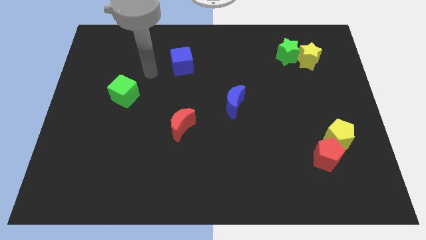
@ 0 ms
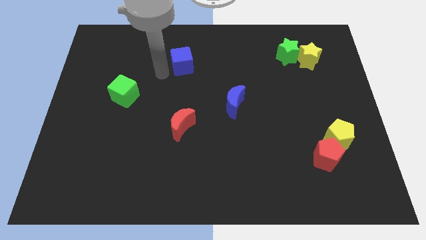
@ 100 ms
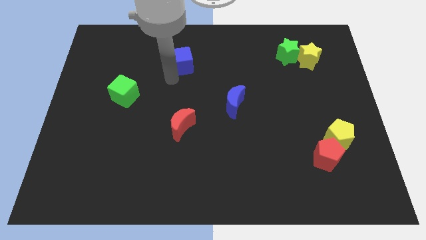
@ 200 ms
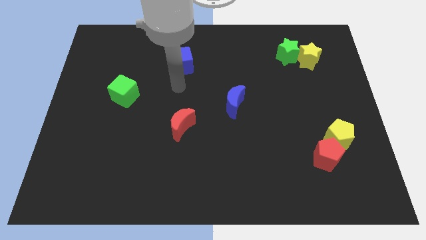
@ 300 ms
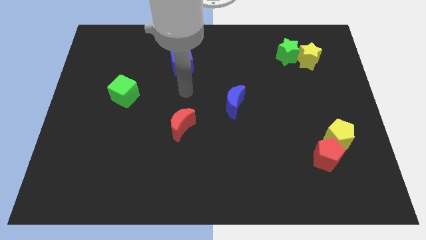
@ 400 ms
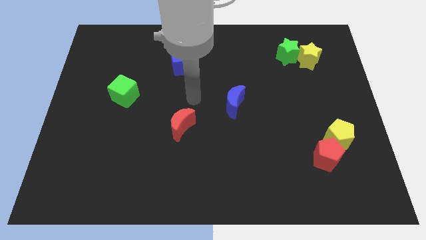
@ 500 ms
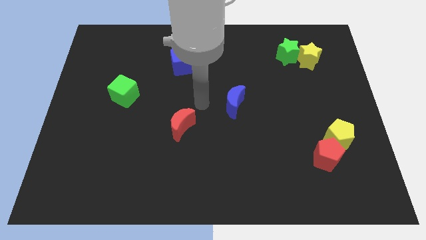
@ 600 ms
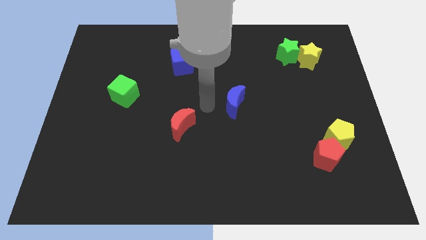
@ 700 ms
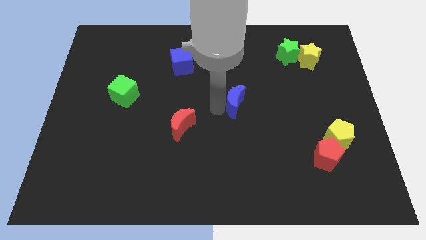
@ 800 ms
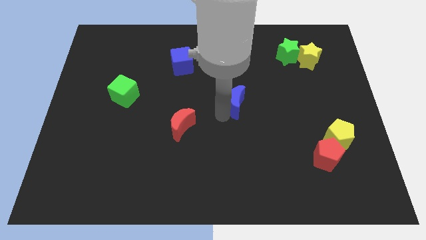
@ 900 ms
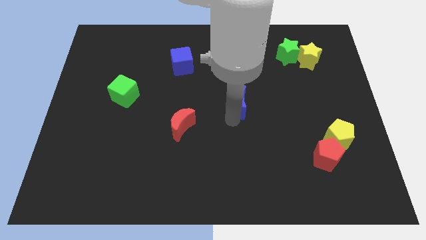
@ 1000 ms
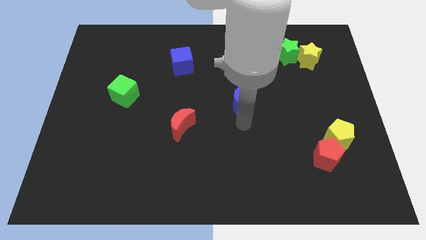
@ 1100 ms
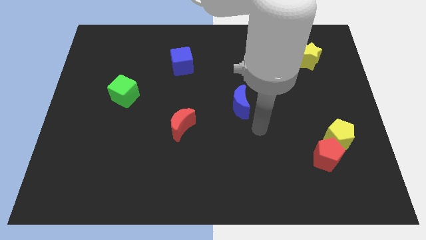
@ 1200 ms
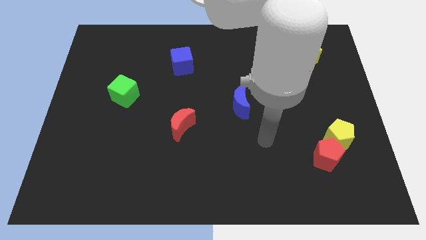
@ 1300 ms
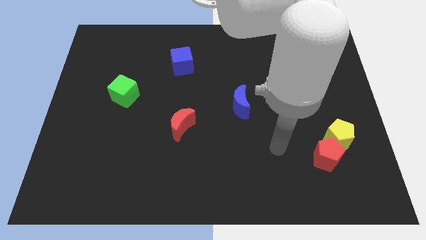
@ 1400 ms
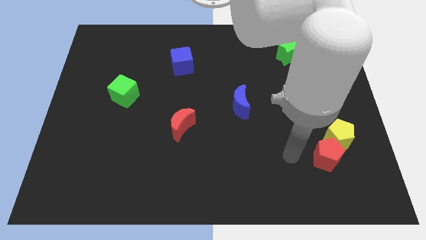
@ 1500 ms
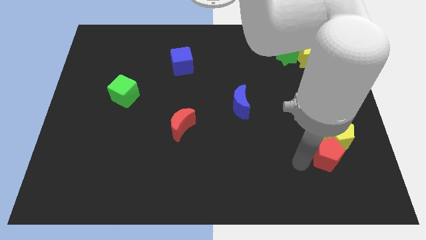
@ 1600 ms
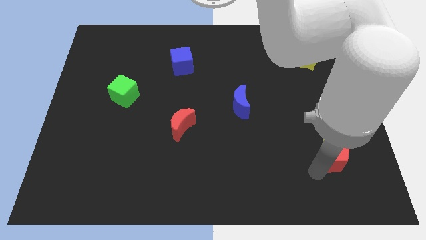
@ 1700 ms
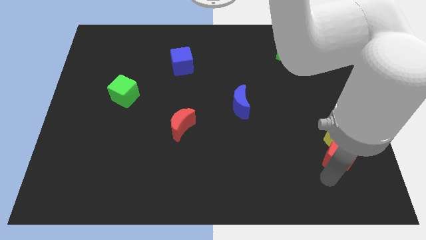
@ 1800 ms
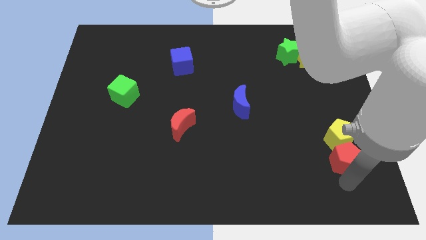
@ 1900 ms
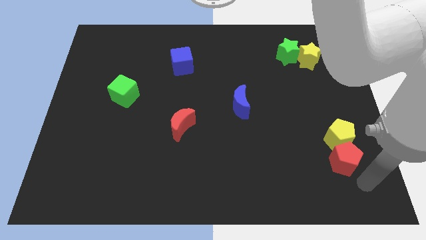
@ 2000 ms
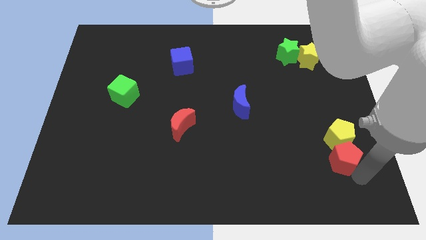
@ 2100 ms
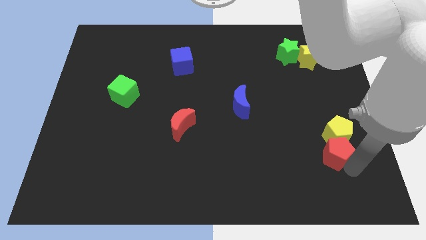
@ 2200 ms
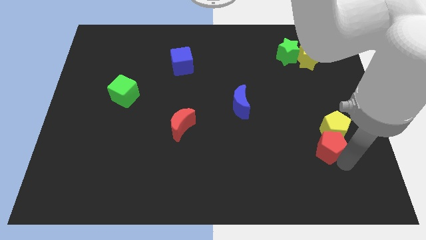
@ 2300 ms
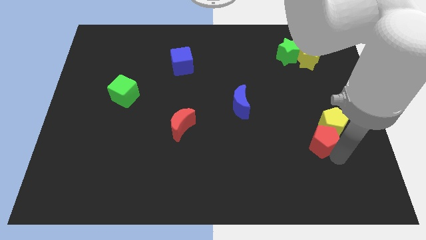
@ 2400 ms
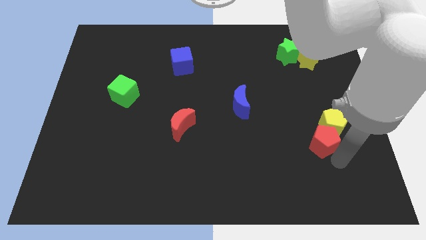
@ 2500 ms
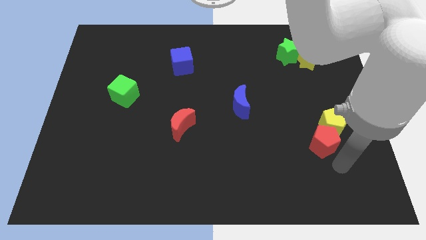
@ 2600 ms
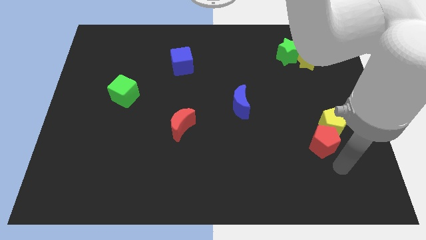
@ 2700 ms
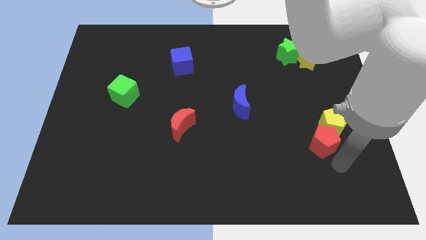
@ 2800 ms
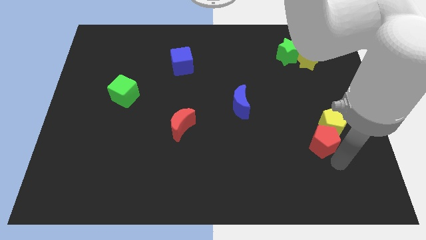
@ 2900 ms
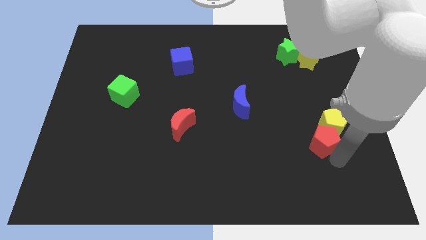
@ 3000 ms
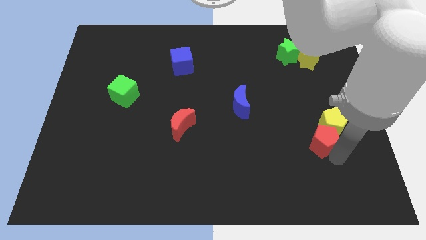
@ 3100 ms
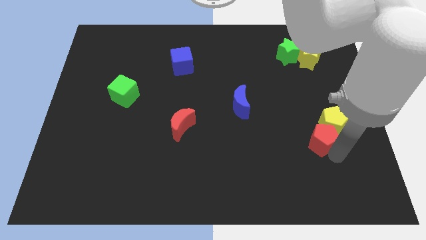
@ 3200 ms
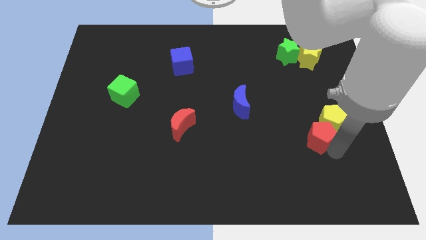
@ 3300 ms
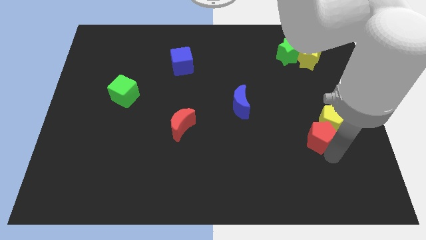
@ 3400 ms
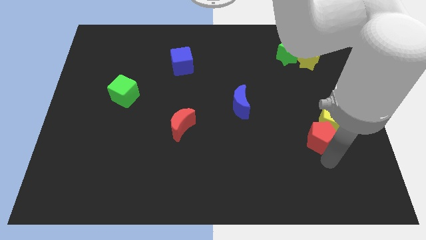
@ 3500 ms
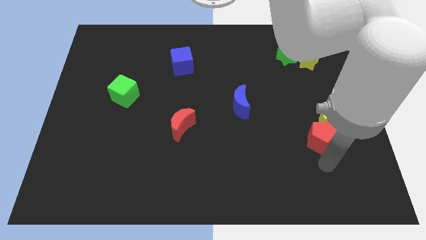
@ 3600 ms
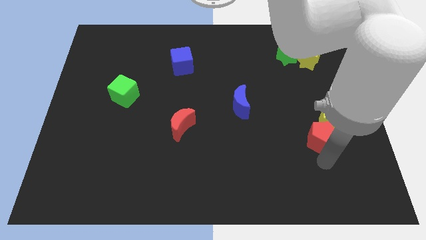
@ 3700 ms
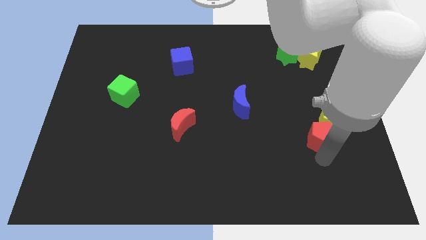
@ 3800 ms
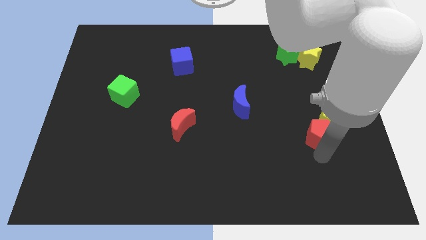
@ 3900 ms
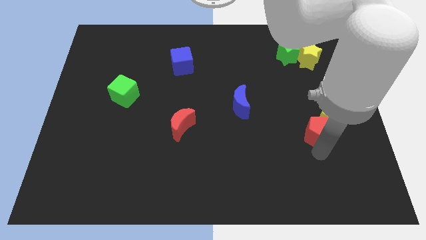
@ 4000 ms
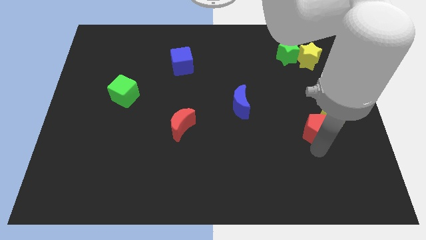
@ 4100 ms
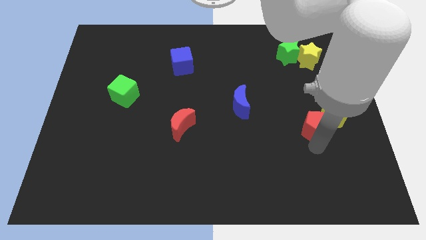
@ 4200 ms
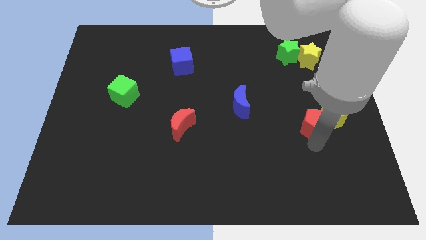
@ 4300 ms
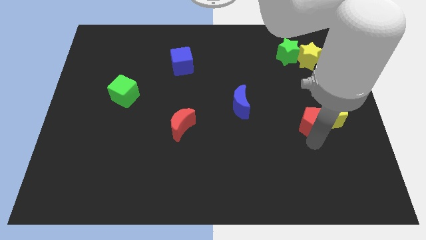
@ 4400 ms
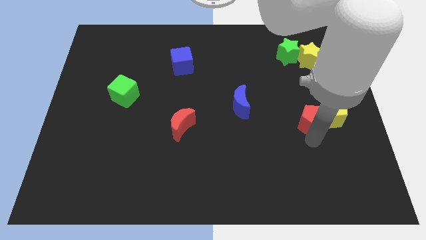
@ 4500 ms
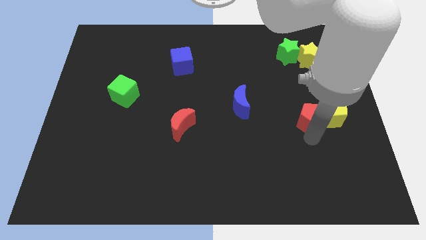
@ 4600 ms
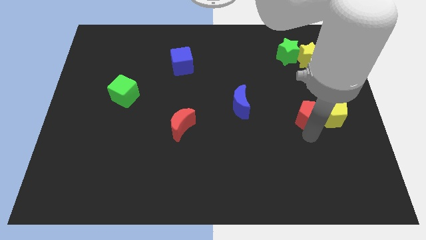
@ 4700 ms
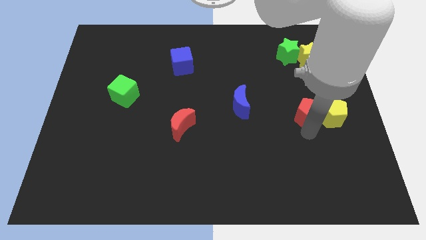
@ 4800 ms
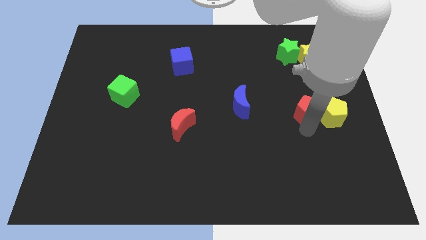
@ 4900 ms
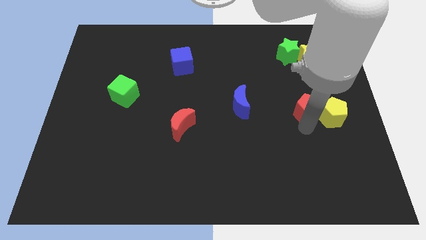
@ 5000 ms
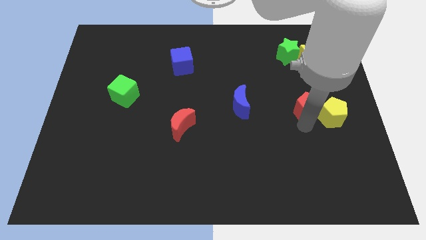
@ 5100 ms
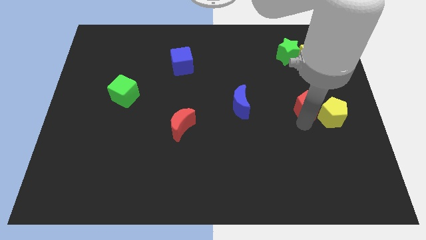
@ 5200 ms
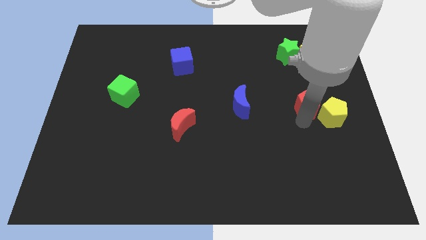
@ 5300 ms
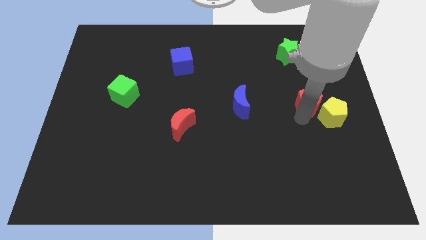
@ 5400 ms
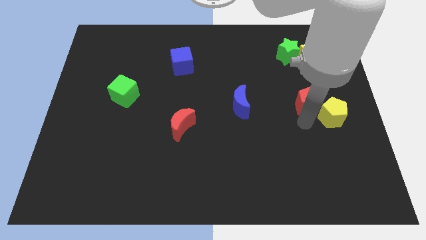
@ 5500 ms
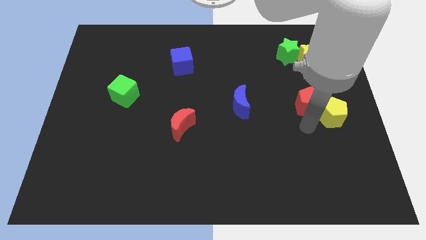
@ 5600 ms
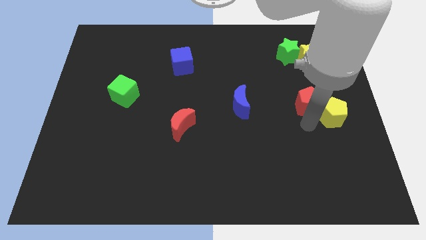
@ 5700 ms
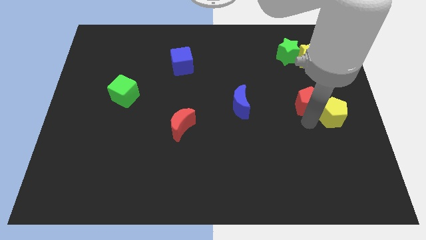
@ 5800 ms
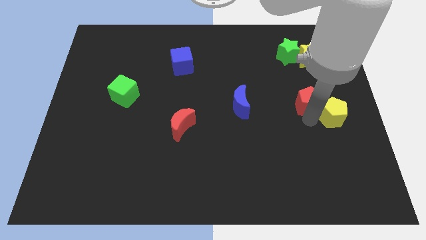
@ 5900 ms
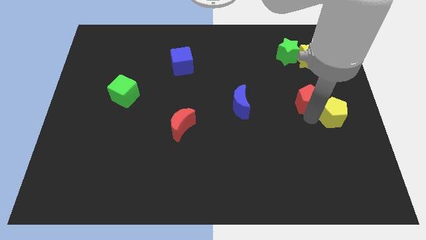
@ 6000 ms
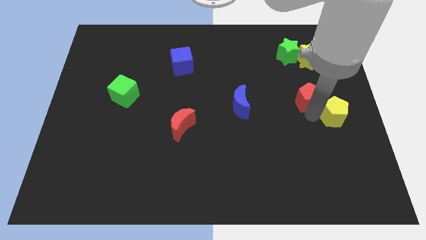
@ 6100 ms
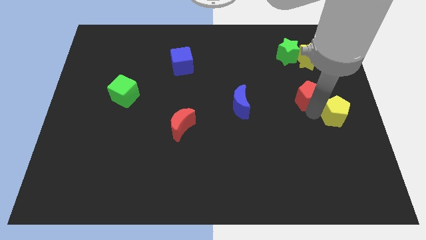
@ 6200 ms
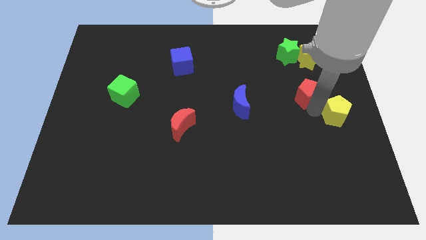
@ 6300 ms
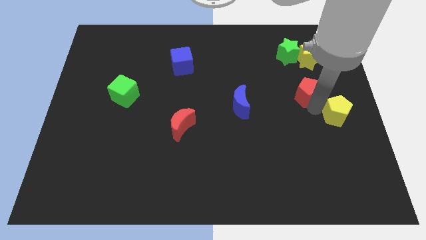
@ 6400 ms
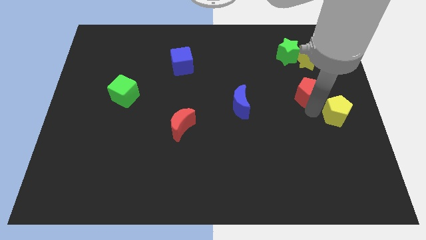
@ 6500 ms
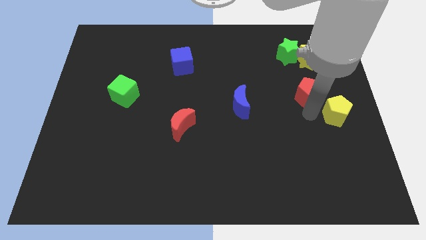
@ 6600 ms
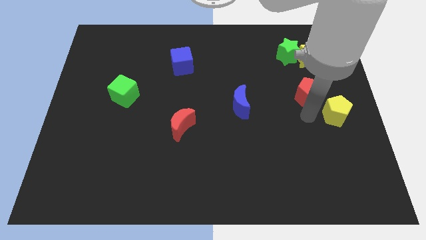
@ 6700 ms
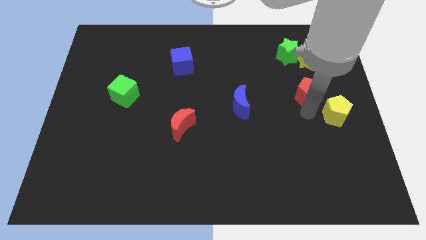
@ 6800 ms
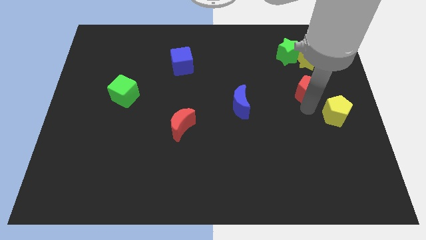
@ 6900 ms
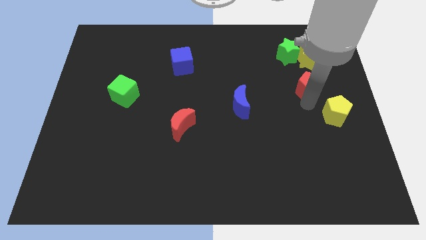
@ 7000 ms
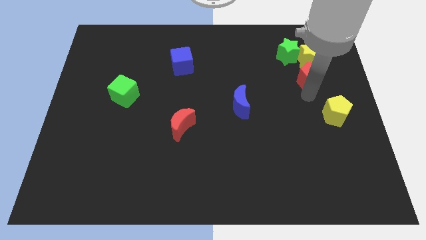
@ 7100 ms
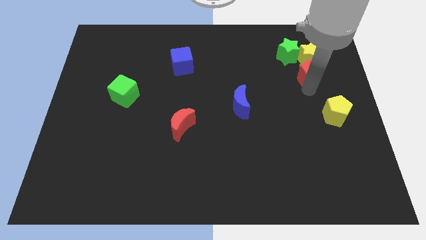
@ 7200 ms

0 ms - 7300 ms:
slide the red pentagon next to the yellow star
